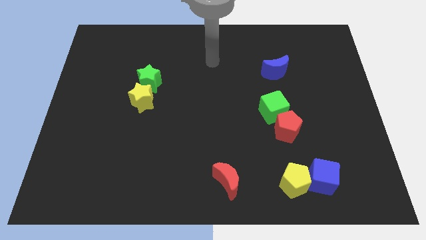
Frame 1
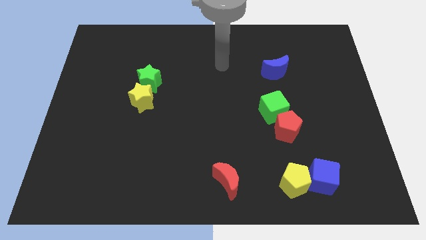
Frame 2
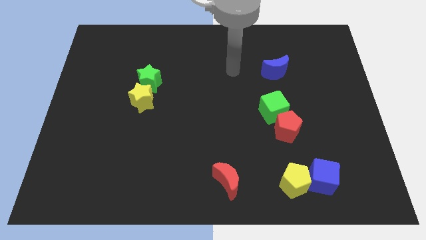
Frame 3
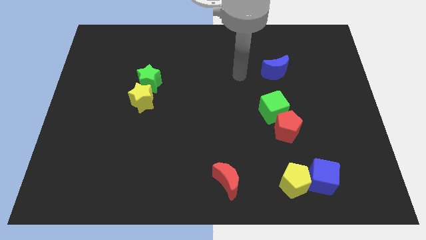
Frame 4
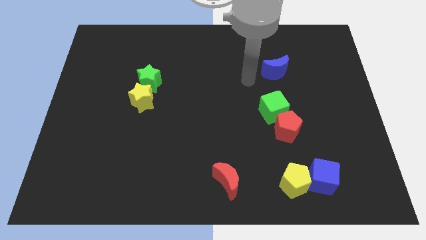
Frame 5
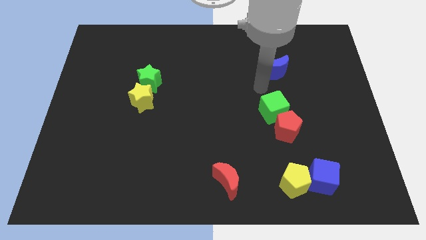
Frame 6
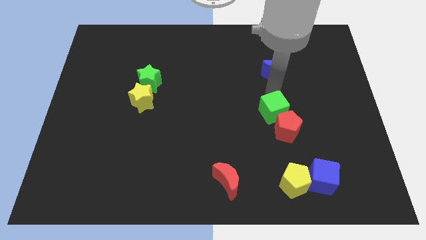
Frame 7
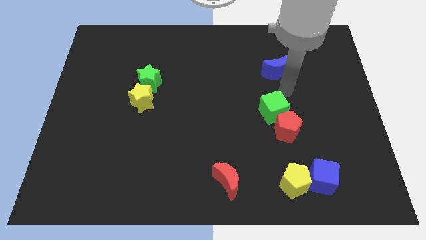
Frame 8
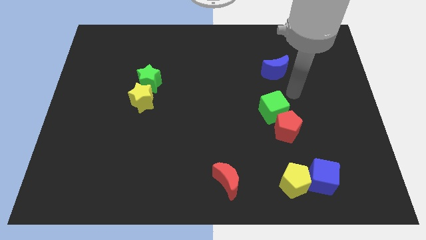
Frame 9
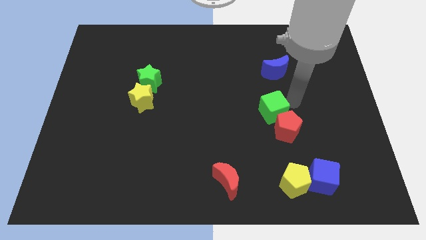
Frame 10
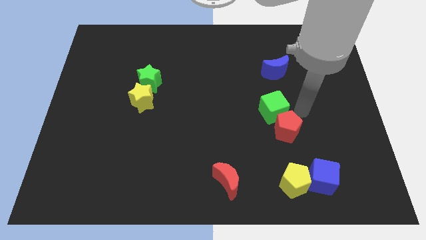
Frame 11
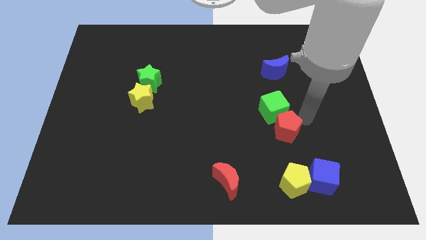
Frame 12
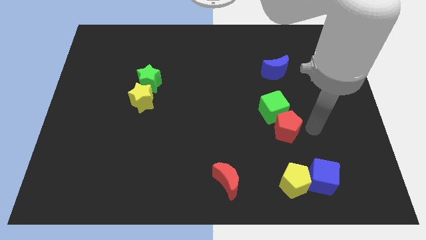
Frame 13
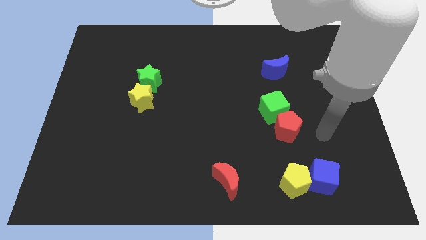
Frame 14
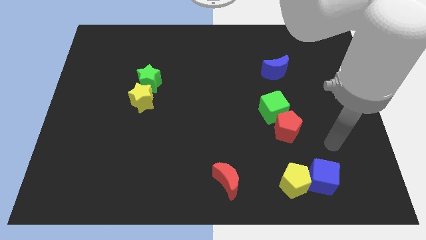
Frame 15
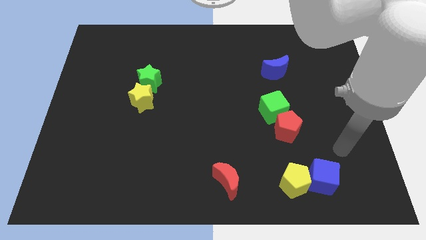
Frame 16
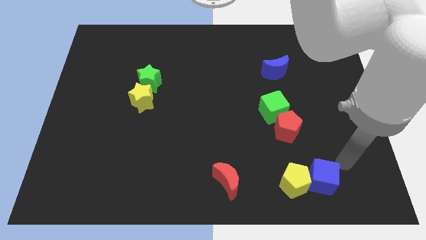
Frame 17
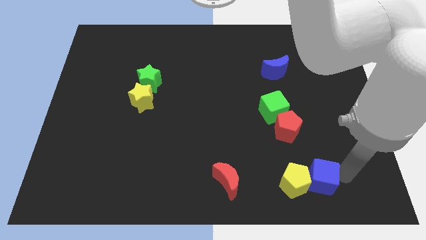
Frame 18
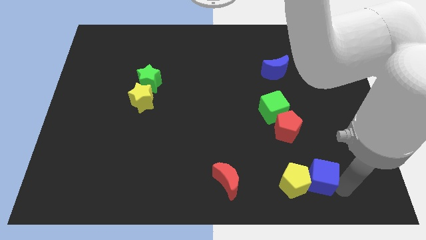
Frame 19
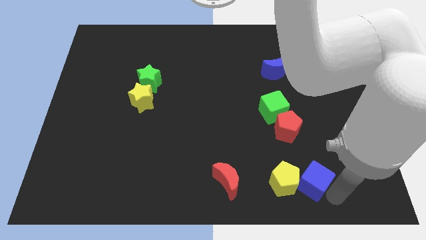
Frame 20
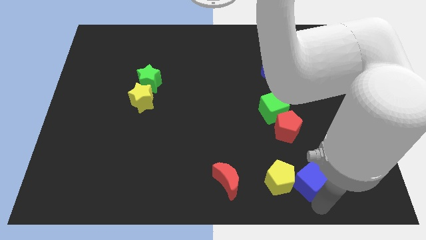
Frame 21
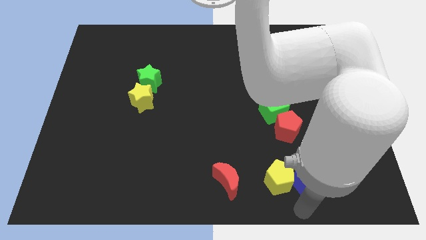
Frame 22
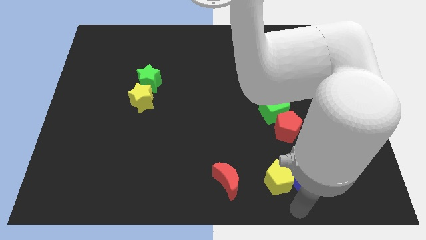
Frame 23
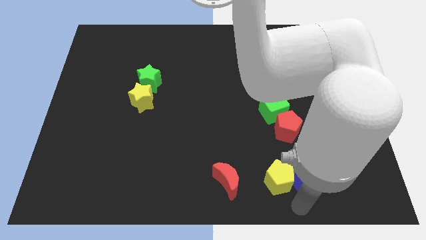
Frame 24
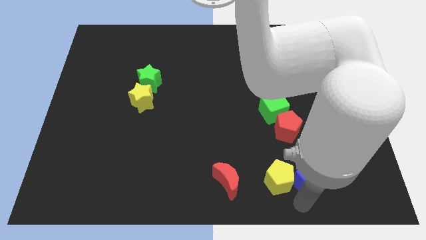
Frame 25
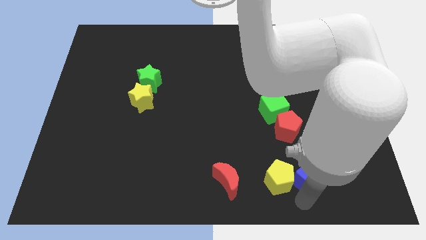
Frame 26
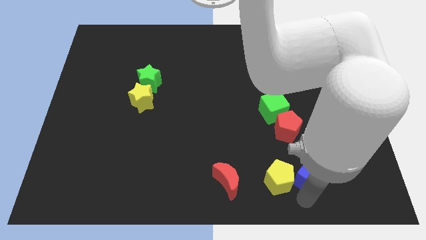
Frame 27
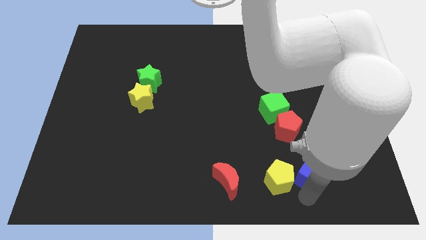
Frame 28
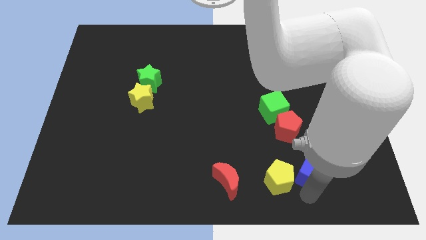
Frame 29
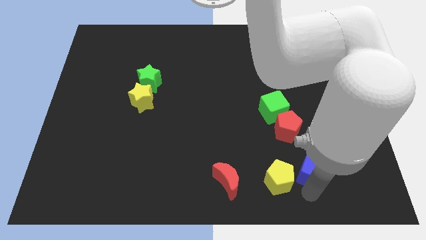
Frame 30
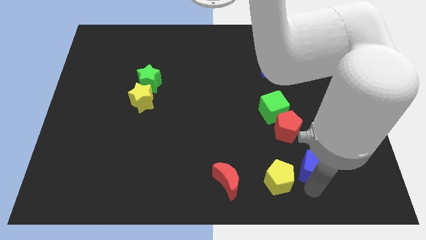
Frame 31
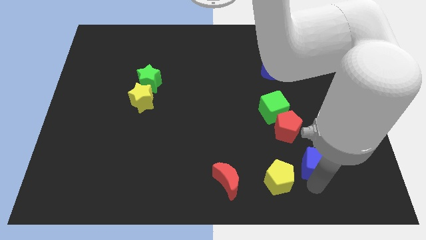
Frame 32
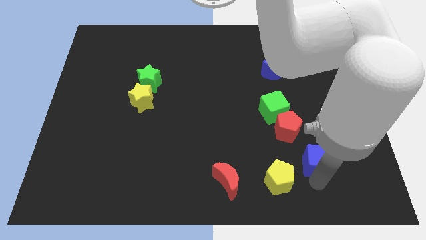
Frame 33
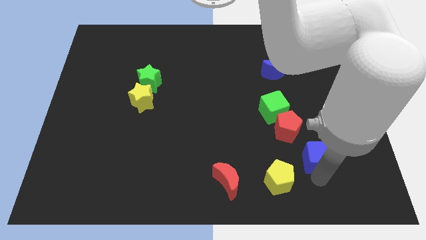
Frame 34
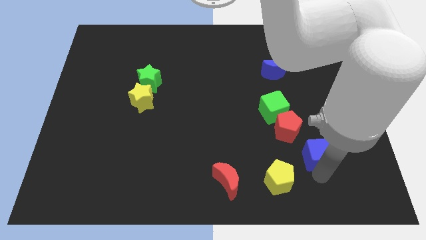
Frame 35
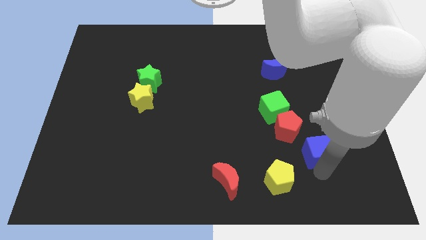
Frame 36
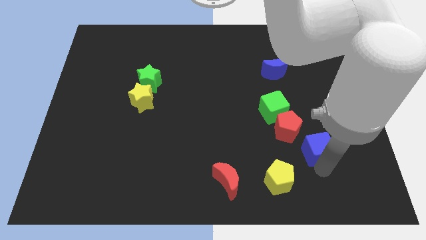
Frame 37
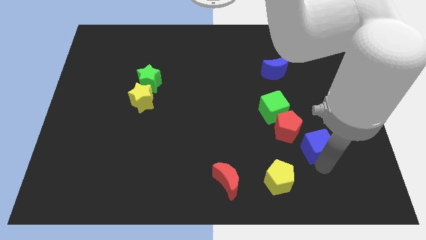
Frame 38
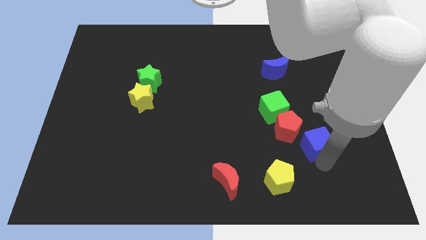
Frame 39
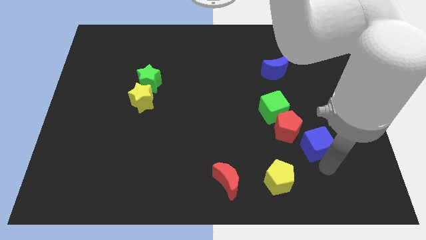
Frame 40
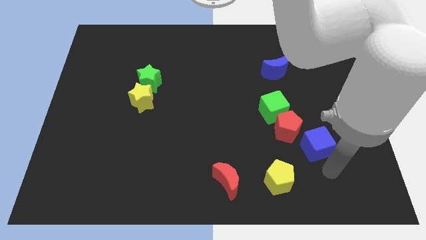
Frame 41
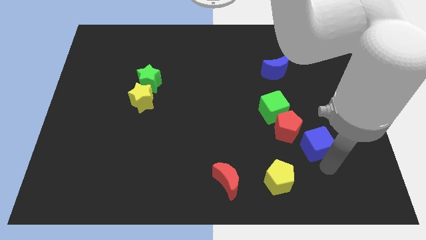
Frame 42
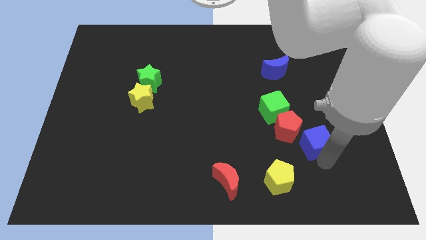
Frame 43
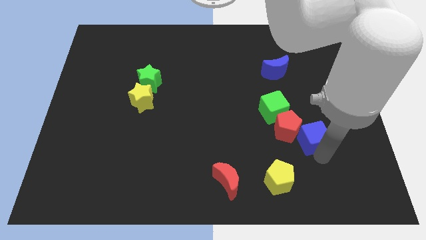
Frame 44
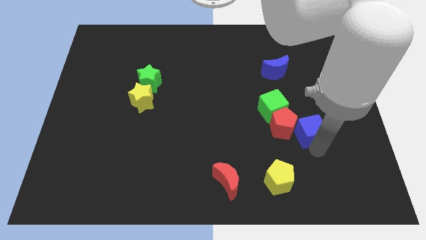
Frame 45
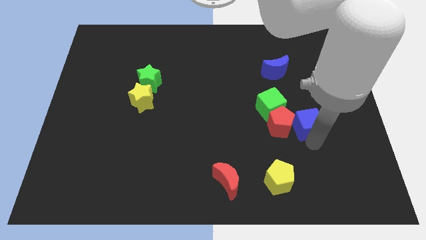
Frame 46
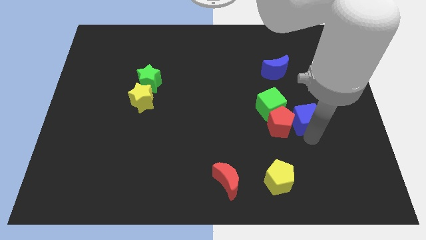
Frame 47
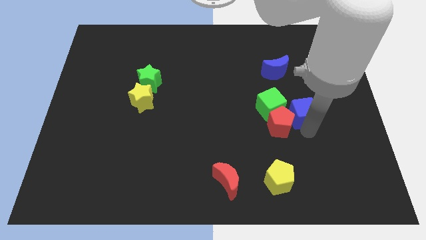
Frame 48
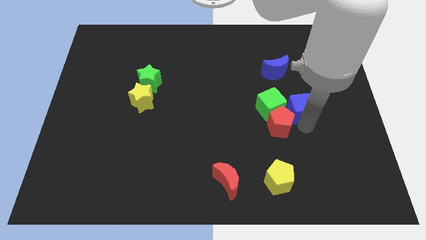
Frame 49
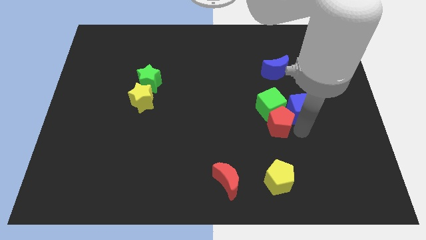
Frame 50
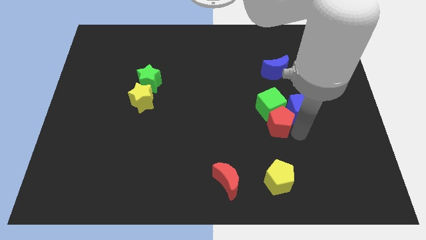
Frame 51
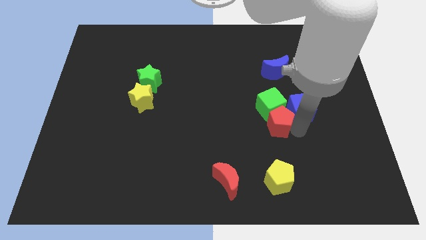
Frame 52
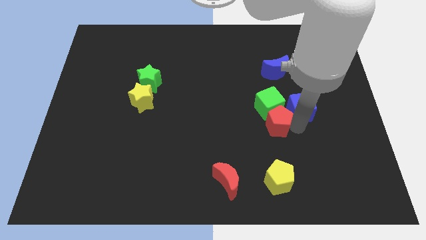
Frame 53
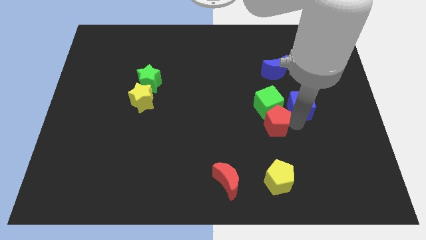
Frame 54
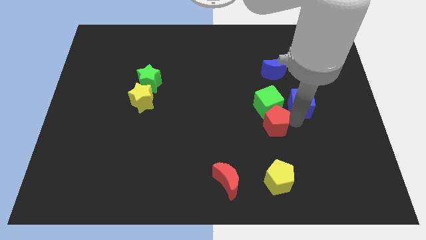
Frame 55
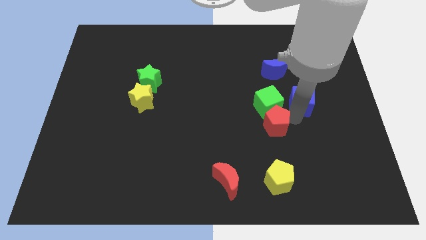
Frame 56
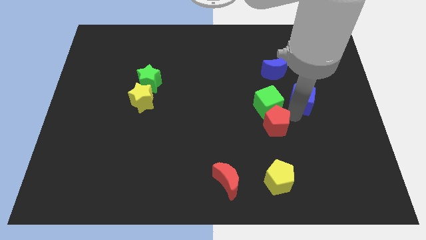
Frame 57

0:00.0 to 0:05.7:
push the blue cube up

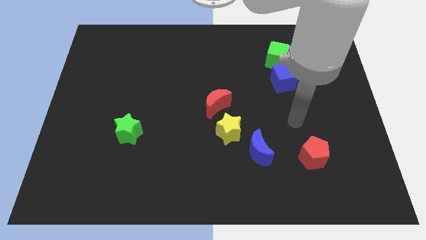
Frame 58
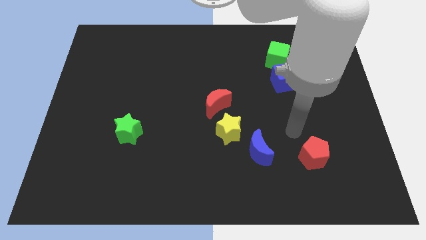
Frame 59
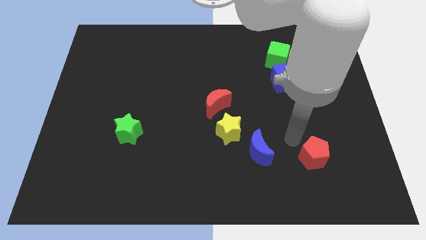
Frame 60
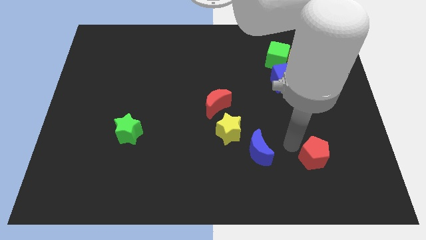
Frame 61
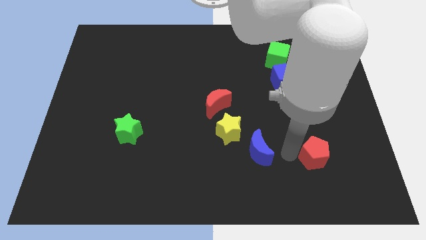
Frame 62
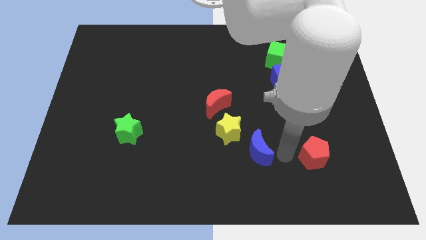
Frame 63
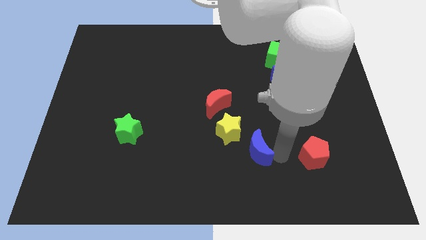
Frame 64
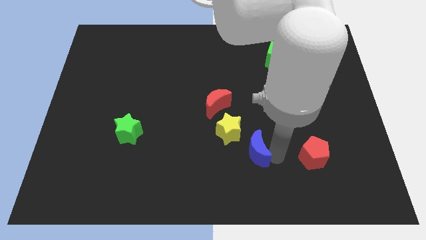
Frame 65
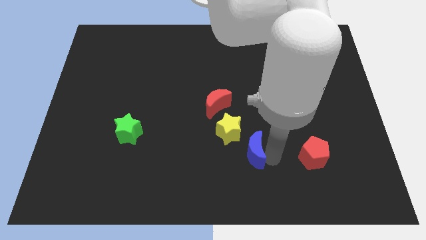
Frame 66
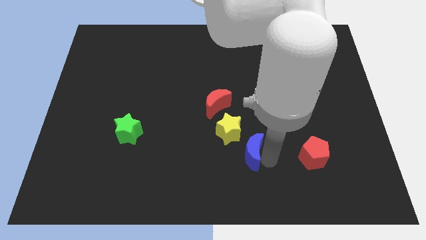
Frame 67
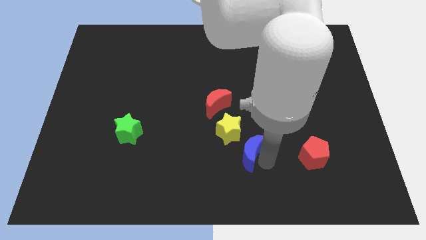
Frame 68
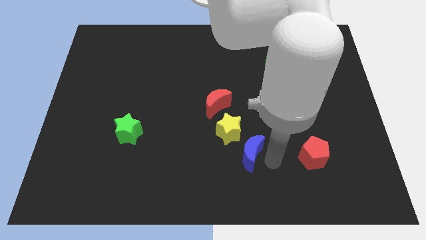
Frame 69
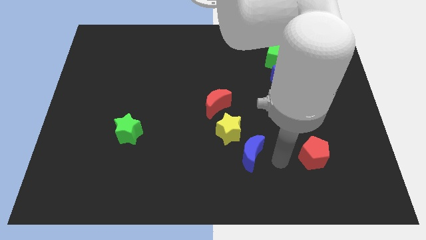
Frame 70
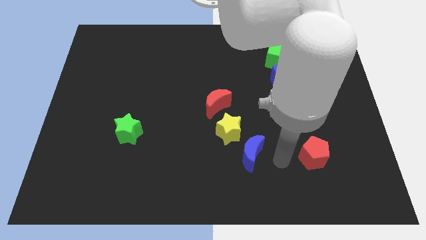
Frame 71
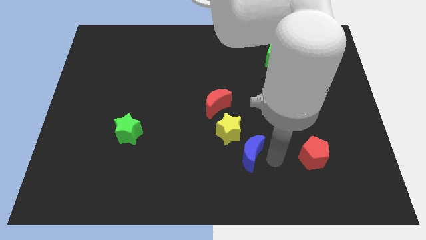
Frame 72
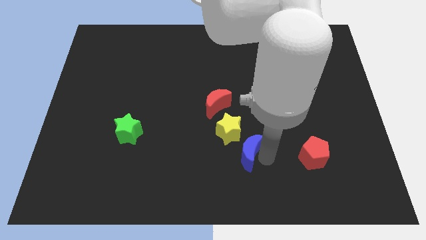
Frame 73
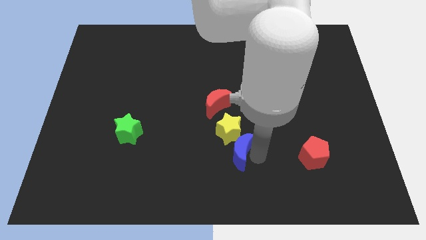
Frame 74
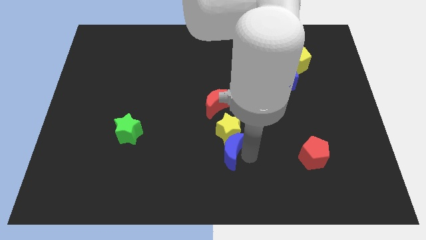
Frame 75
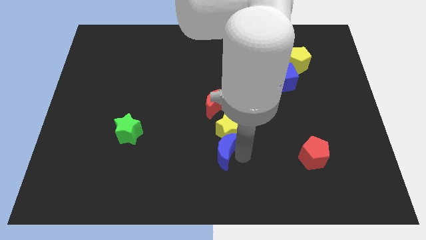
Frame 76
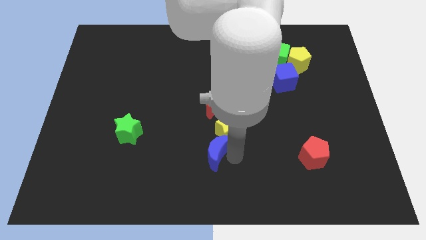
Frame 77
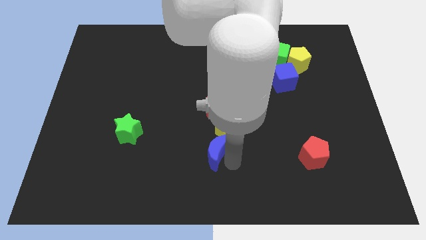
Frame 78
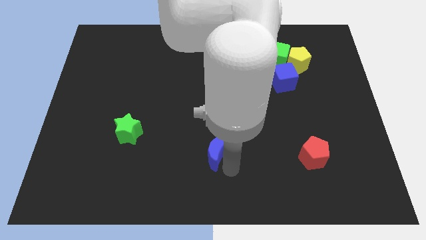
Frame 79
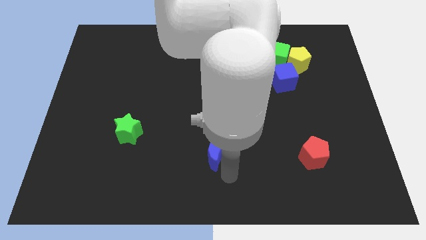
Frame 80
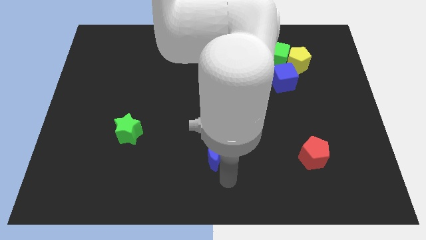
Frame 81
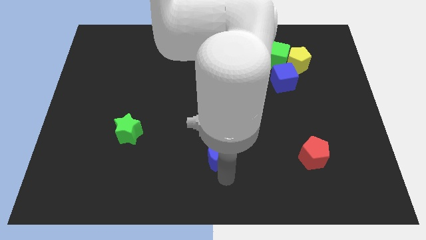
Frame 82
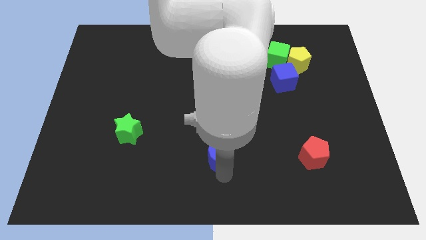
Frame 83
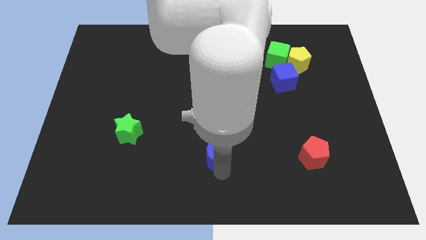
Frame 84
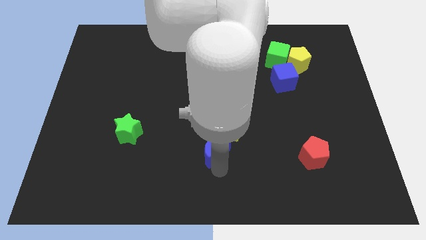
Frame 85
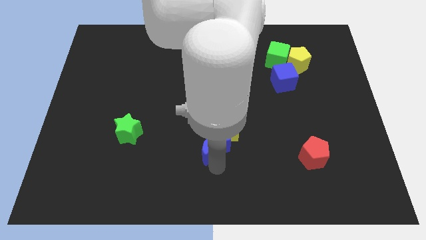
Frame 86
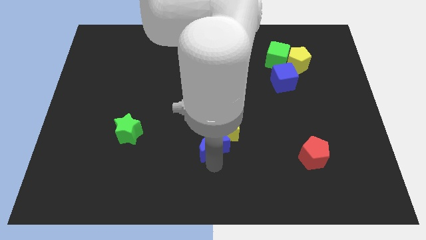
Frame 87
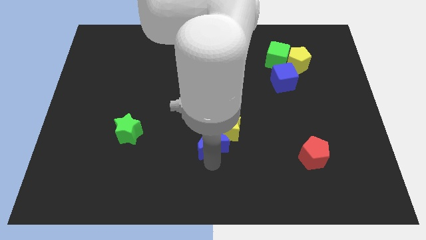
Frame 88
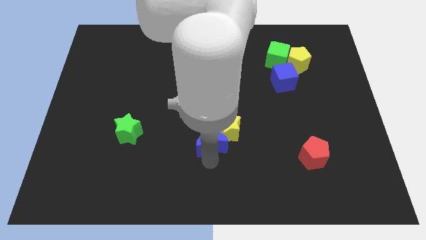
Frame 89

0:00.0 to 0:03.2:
push the blue moon a bit up and then left
